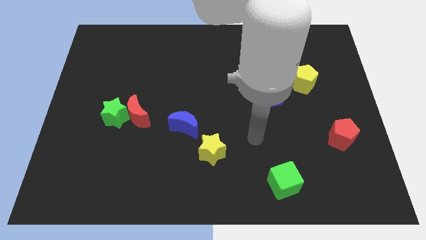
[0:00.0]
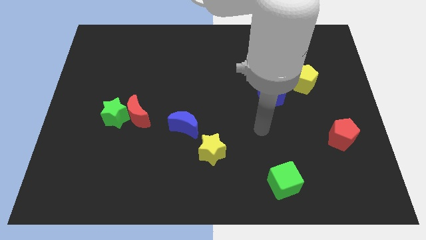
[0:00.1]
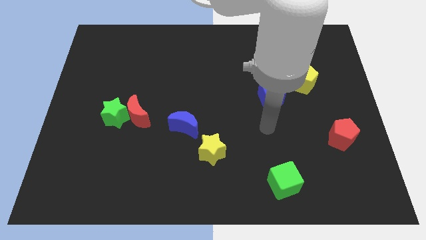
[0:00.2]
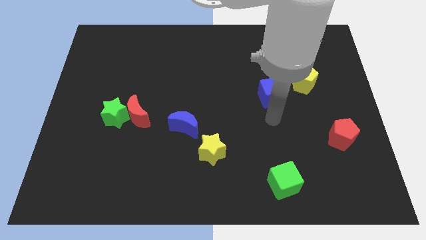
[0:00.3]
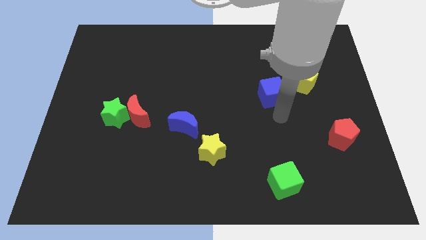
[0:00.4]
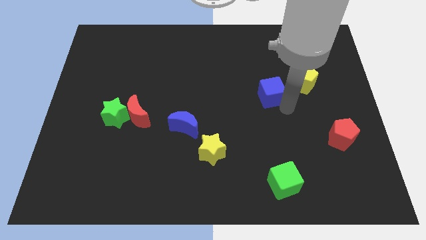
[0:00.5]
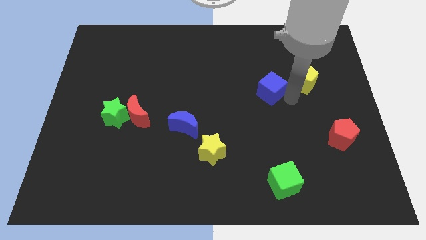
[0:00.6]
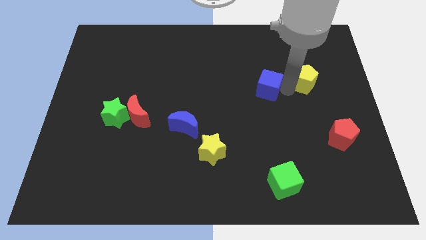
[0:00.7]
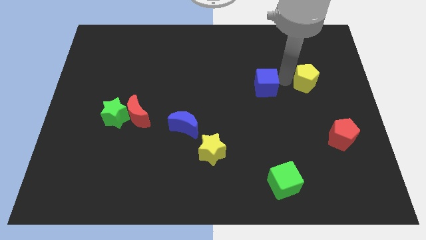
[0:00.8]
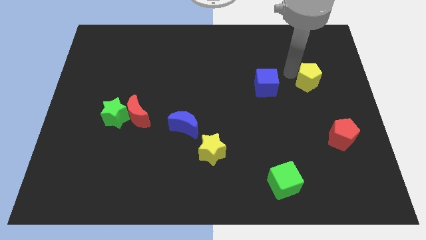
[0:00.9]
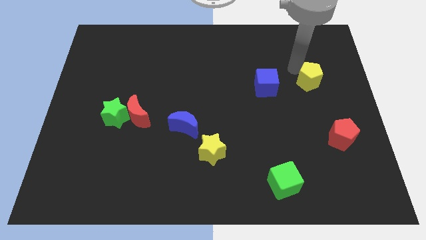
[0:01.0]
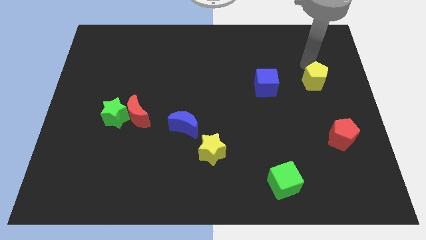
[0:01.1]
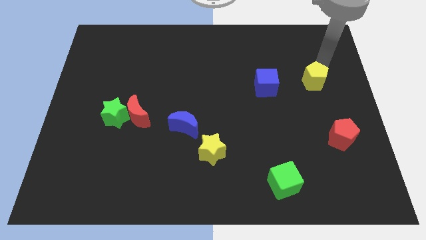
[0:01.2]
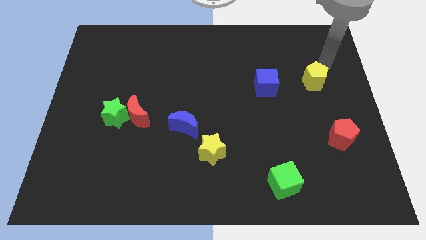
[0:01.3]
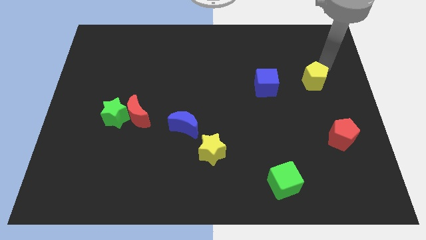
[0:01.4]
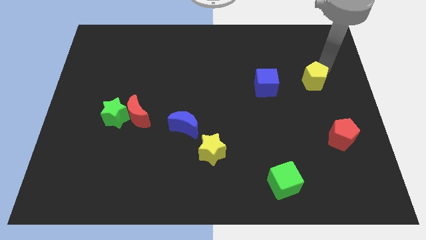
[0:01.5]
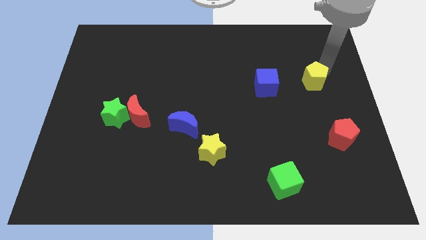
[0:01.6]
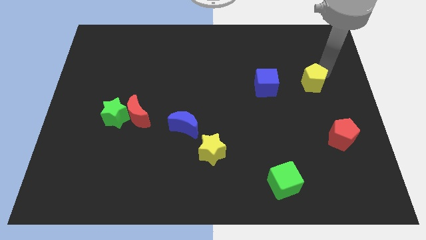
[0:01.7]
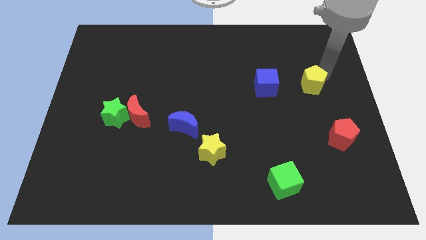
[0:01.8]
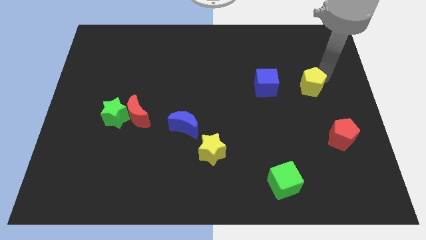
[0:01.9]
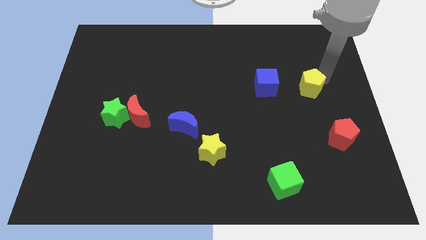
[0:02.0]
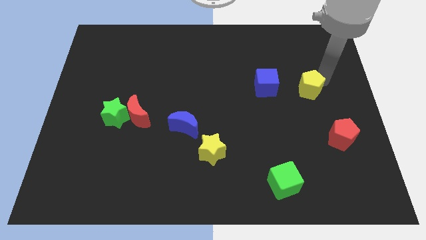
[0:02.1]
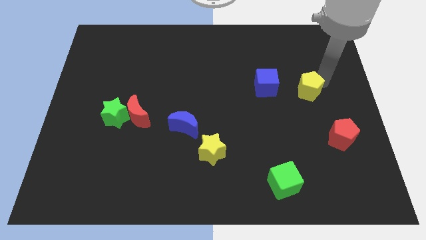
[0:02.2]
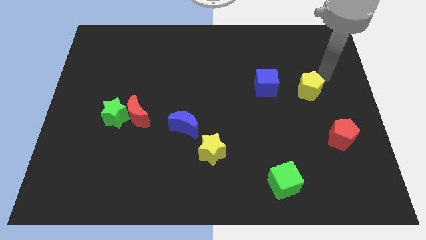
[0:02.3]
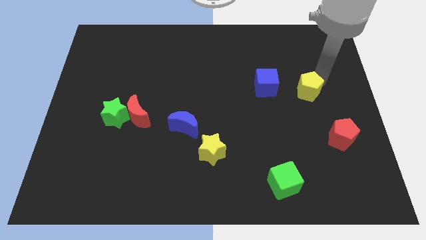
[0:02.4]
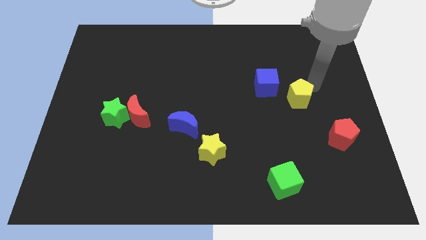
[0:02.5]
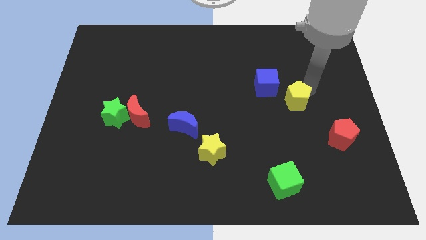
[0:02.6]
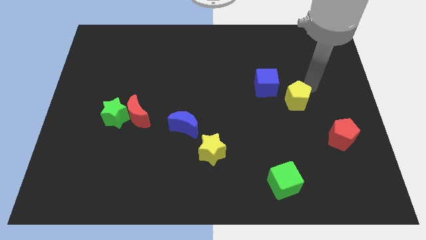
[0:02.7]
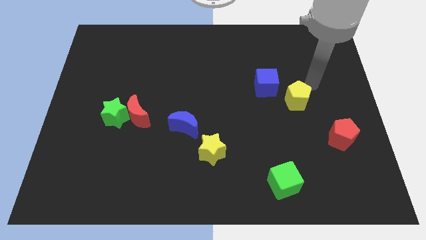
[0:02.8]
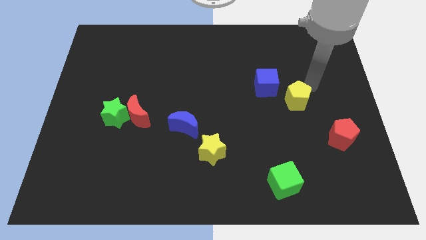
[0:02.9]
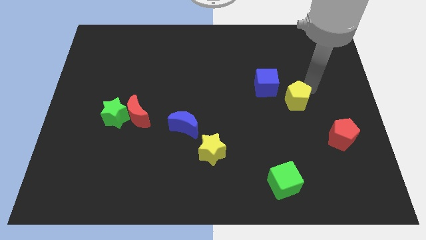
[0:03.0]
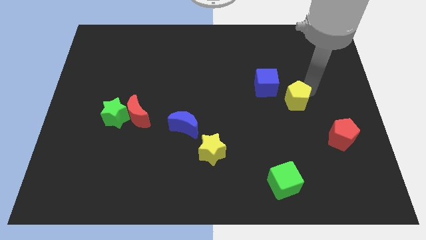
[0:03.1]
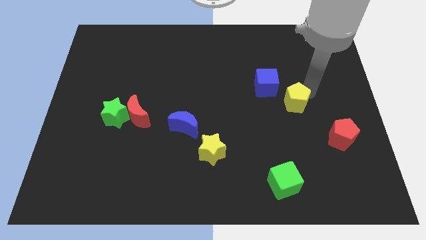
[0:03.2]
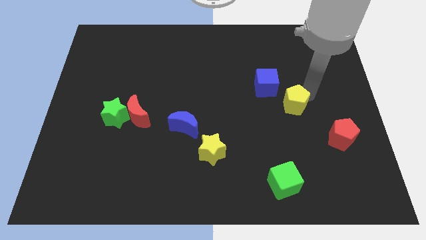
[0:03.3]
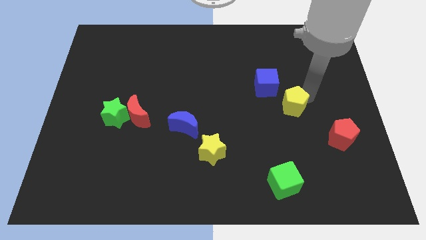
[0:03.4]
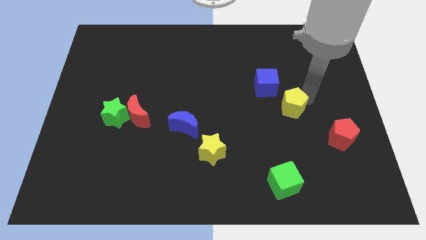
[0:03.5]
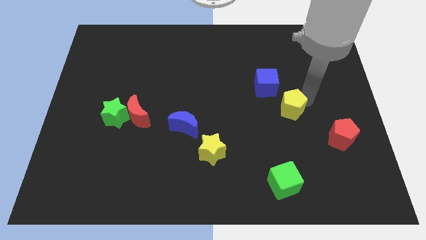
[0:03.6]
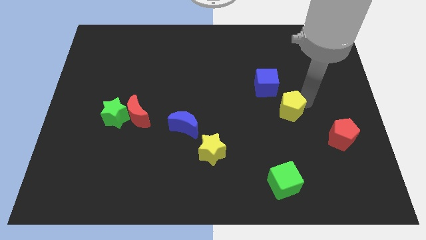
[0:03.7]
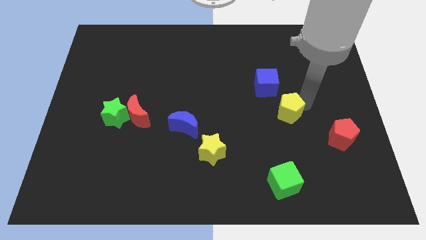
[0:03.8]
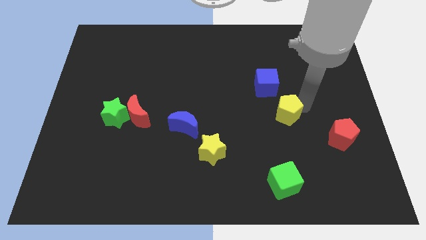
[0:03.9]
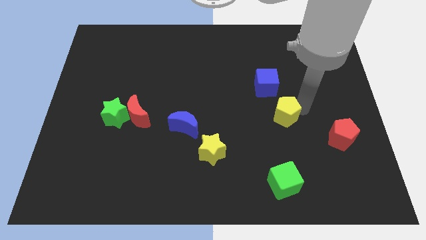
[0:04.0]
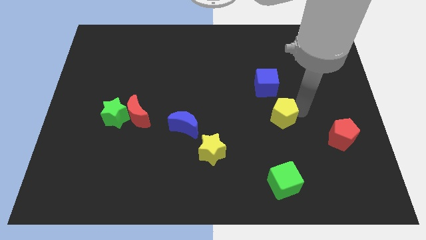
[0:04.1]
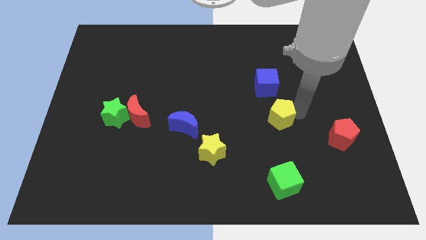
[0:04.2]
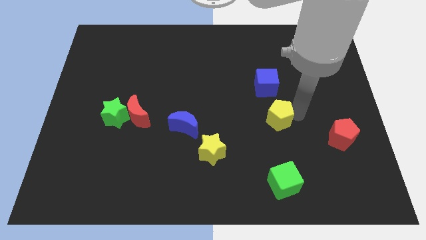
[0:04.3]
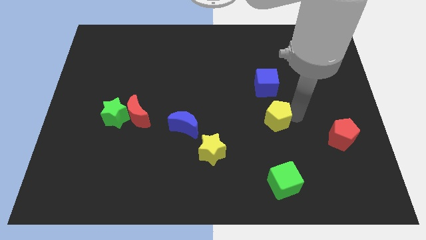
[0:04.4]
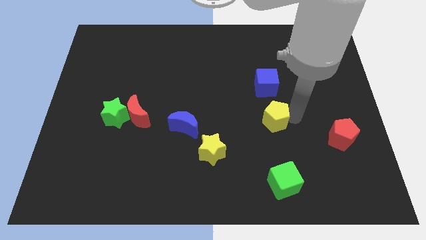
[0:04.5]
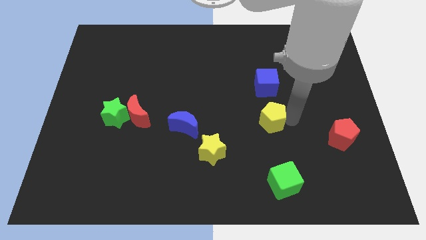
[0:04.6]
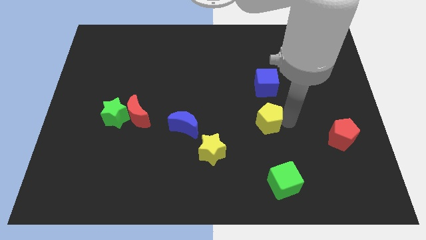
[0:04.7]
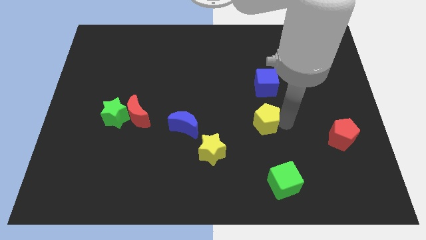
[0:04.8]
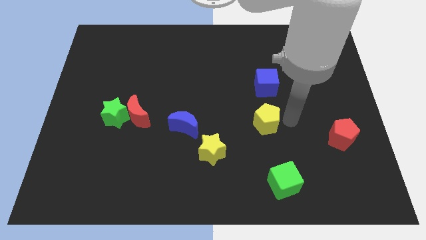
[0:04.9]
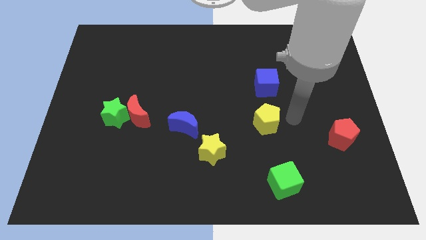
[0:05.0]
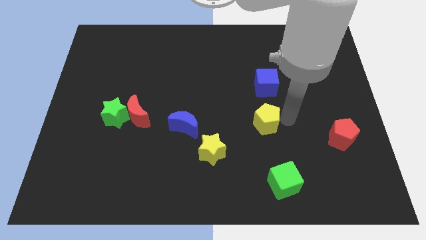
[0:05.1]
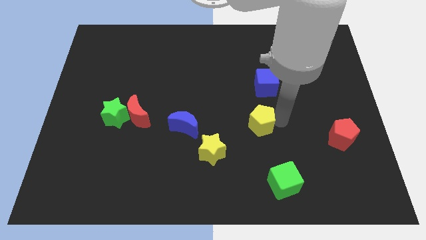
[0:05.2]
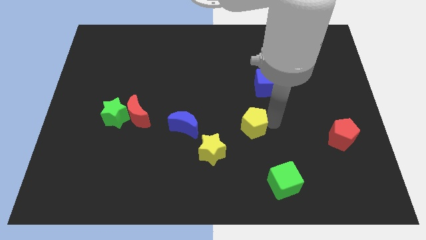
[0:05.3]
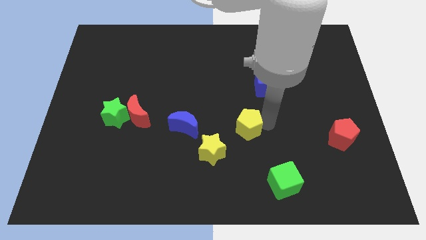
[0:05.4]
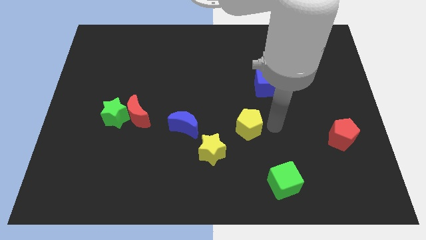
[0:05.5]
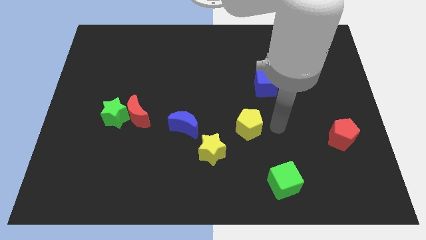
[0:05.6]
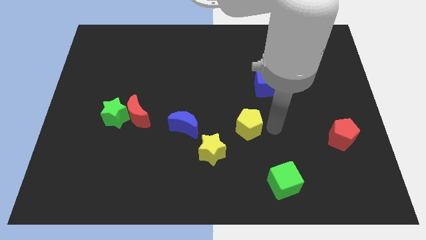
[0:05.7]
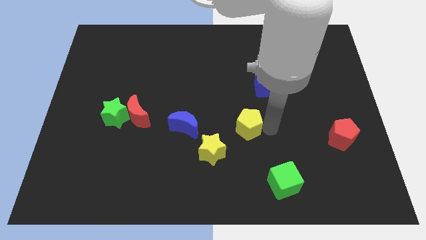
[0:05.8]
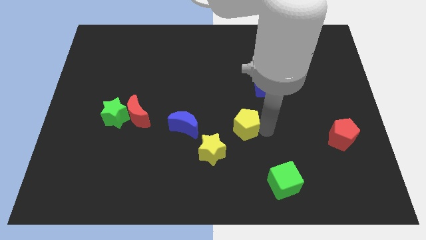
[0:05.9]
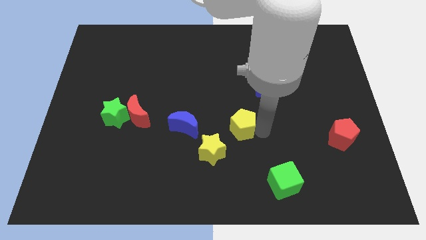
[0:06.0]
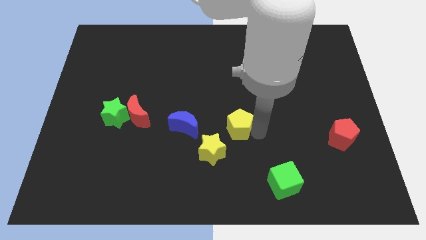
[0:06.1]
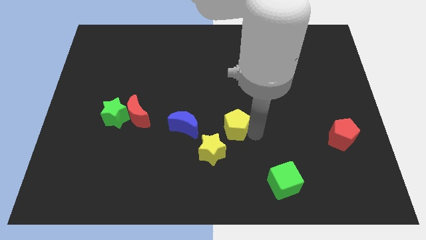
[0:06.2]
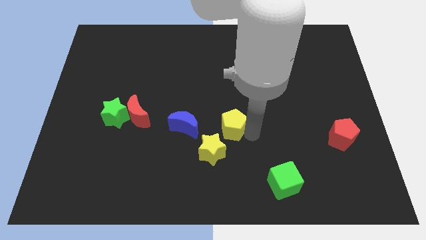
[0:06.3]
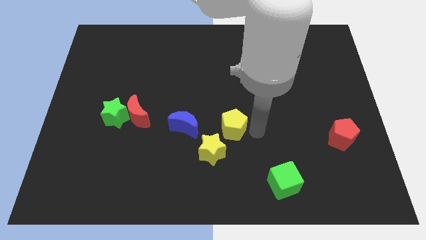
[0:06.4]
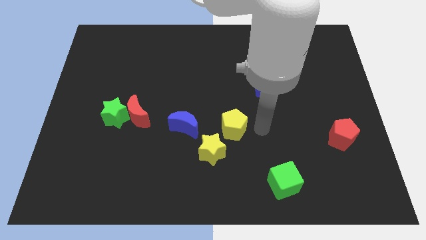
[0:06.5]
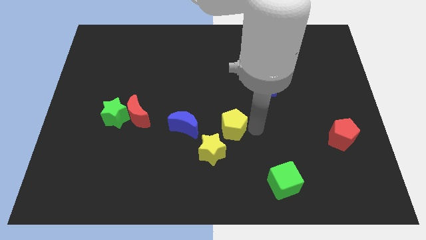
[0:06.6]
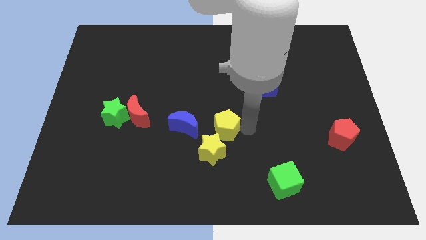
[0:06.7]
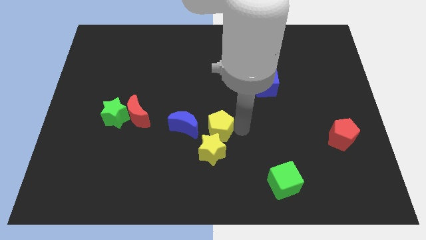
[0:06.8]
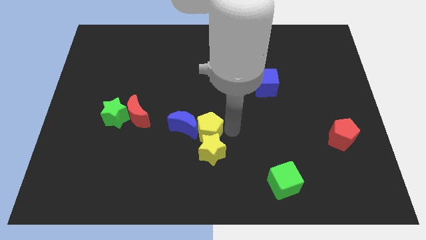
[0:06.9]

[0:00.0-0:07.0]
put the yellow pentagon to the blue moon
